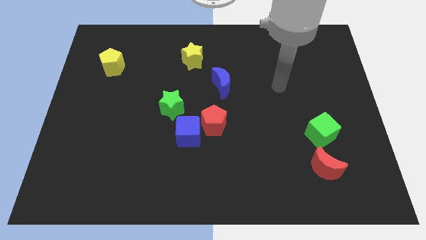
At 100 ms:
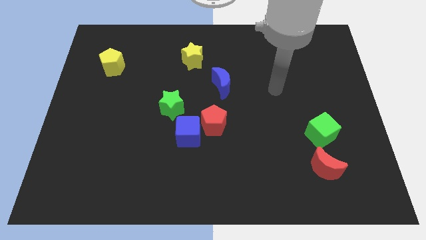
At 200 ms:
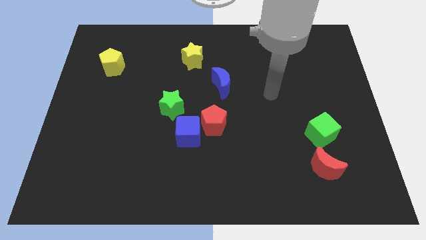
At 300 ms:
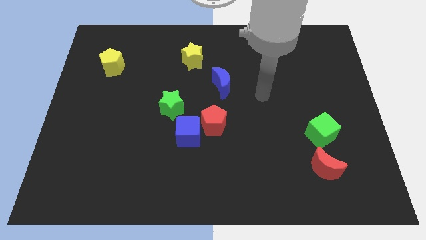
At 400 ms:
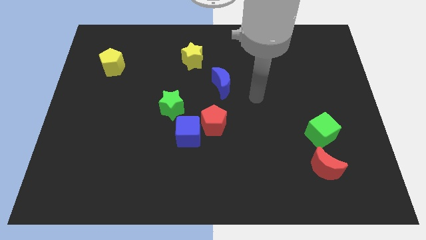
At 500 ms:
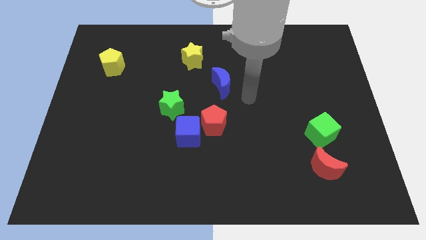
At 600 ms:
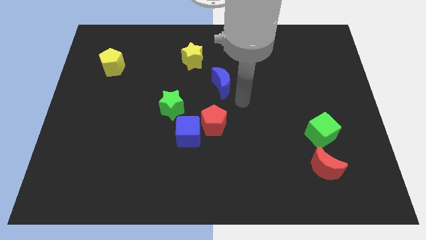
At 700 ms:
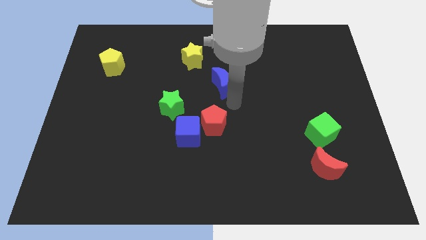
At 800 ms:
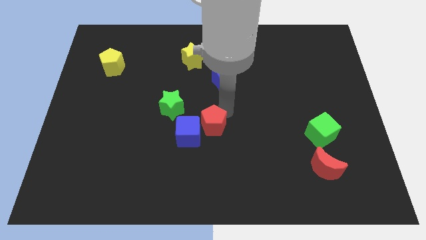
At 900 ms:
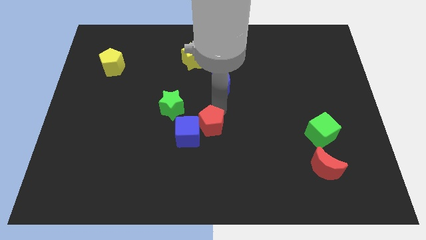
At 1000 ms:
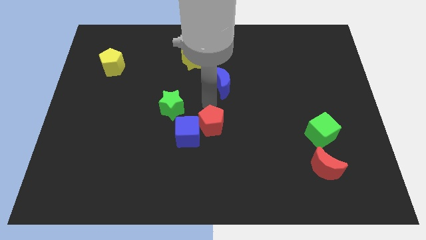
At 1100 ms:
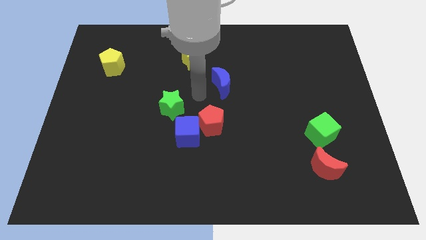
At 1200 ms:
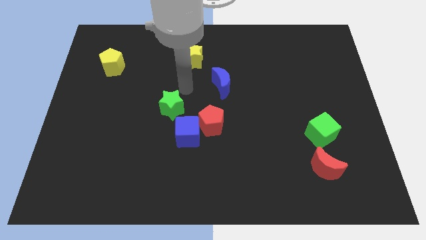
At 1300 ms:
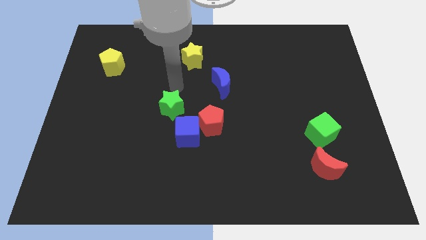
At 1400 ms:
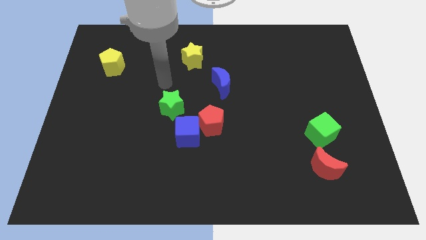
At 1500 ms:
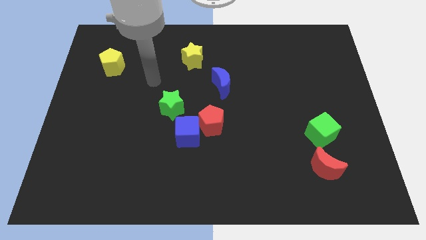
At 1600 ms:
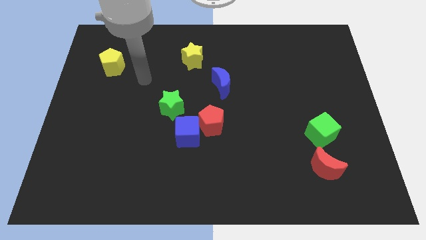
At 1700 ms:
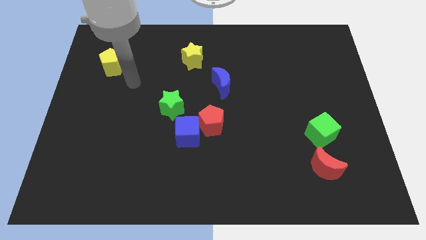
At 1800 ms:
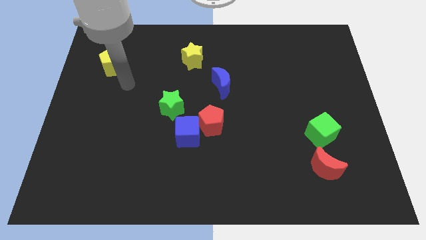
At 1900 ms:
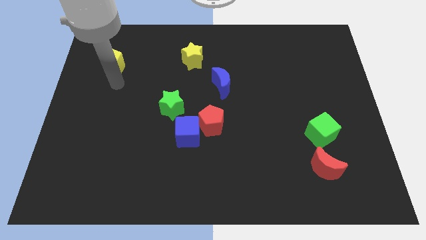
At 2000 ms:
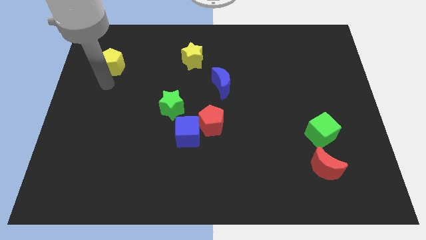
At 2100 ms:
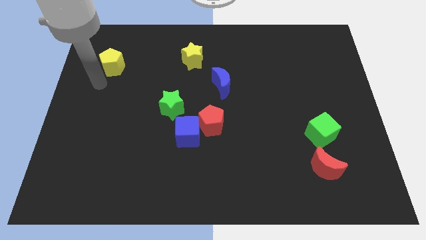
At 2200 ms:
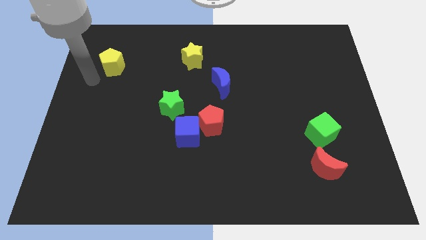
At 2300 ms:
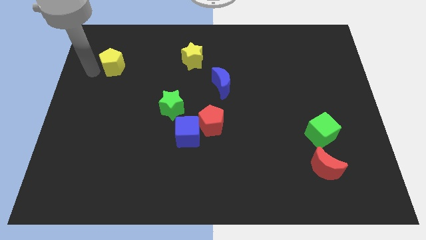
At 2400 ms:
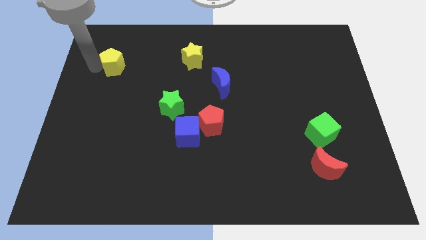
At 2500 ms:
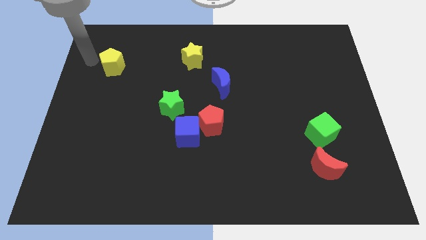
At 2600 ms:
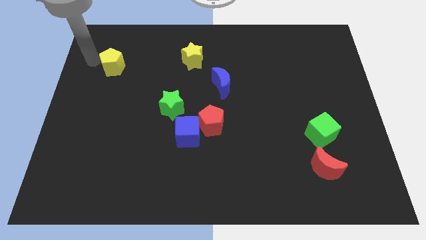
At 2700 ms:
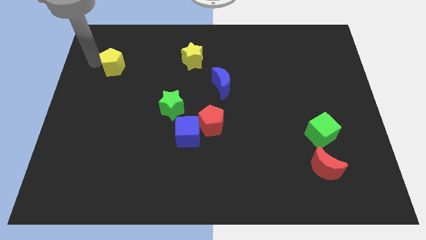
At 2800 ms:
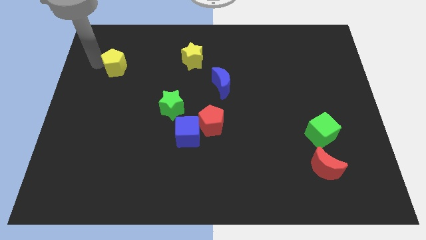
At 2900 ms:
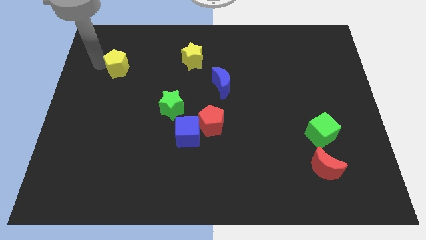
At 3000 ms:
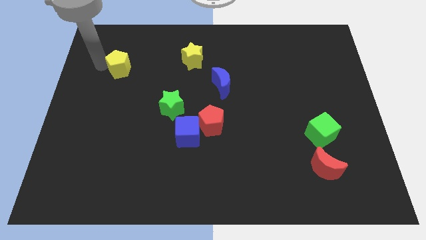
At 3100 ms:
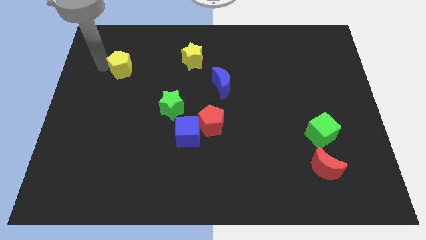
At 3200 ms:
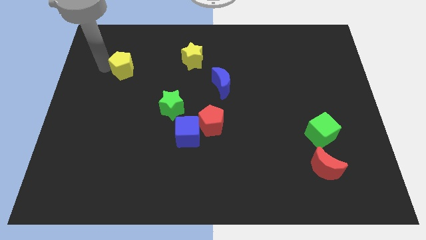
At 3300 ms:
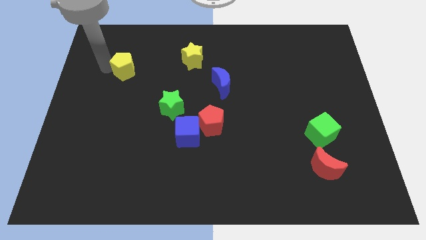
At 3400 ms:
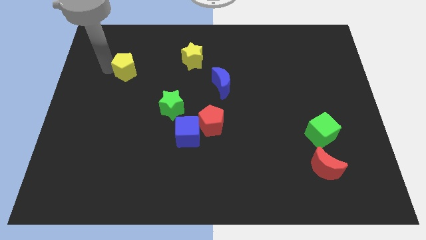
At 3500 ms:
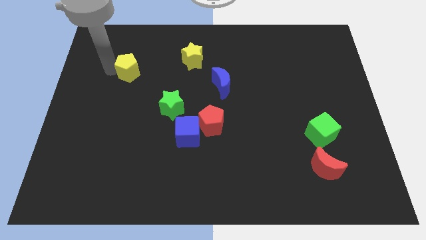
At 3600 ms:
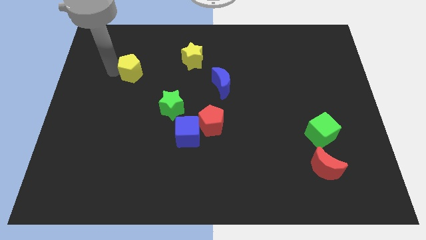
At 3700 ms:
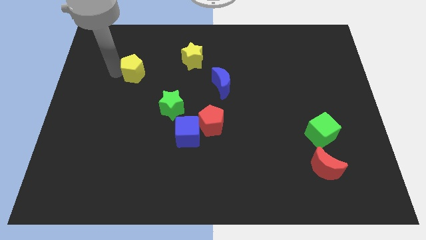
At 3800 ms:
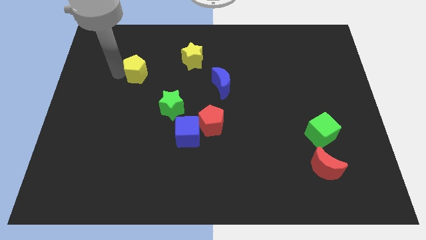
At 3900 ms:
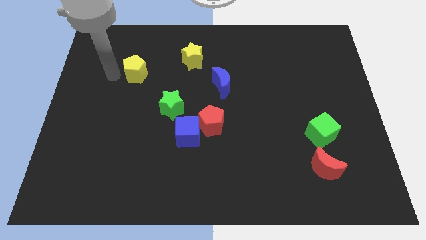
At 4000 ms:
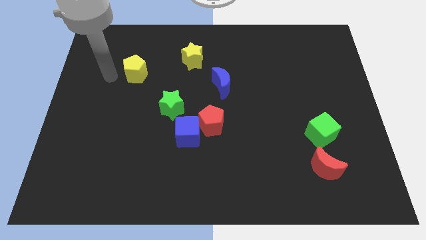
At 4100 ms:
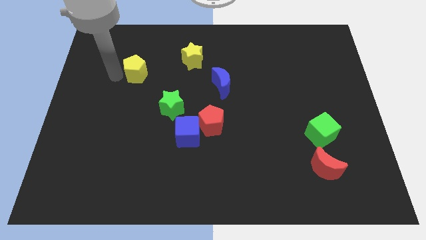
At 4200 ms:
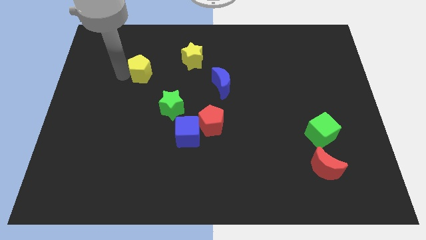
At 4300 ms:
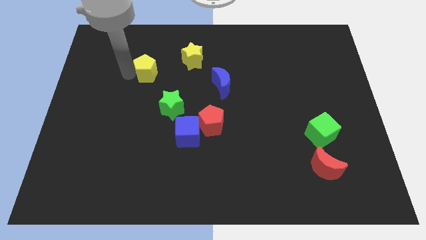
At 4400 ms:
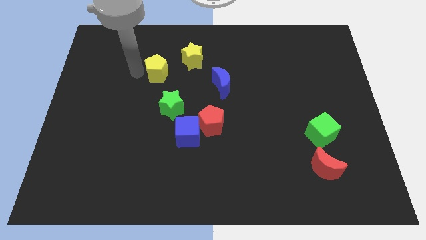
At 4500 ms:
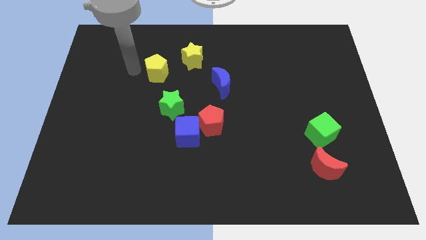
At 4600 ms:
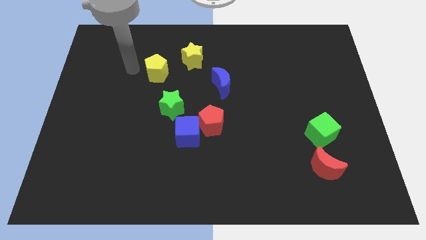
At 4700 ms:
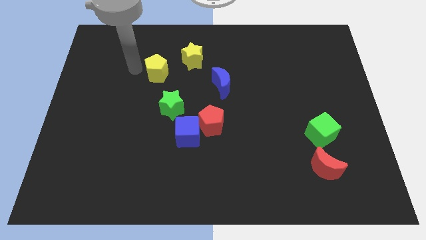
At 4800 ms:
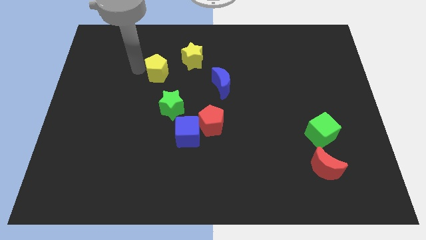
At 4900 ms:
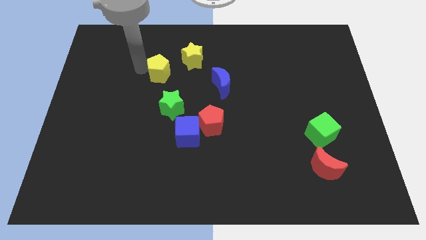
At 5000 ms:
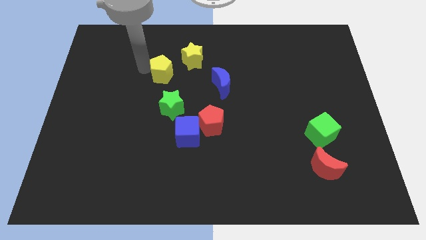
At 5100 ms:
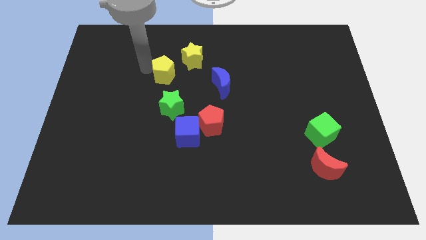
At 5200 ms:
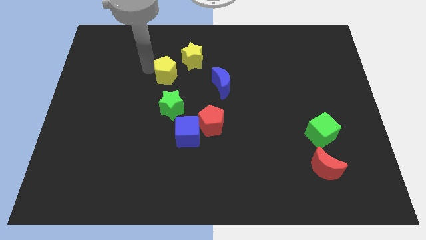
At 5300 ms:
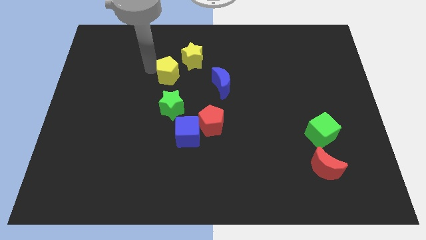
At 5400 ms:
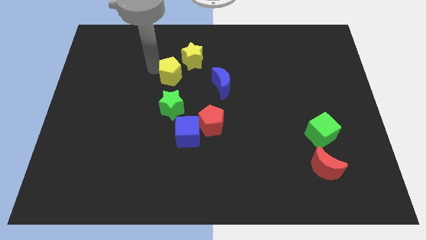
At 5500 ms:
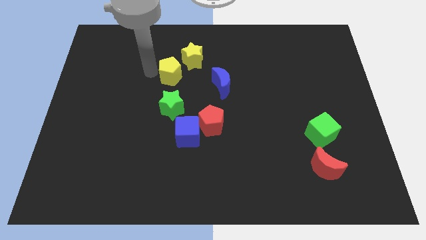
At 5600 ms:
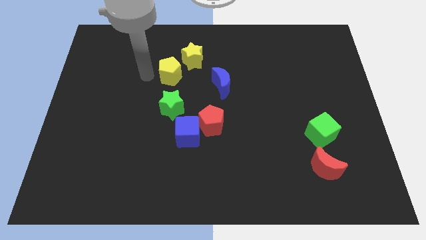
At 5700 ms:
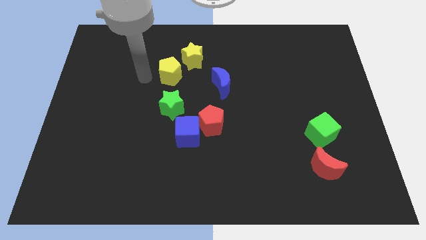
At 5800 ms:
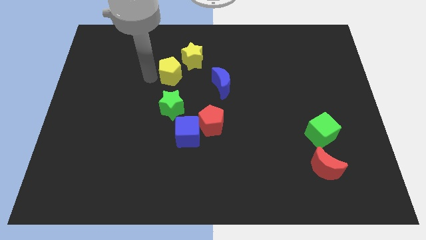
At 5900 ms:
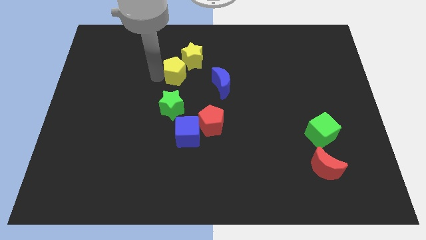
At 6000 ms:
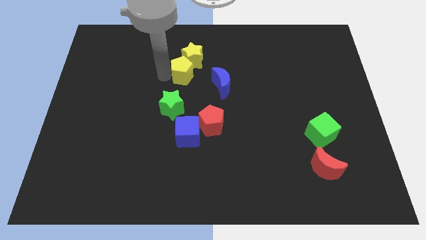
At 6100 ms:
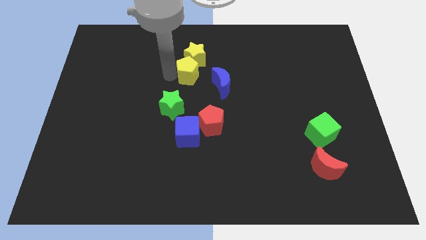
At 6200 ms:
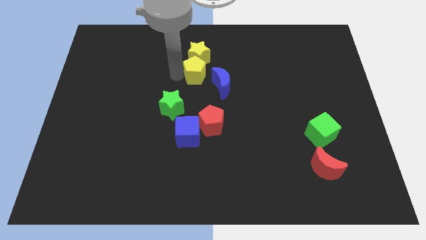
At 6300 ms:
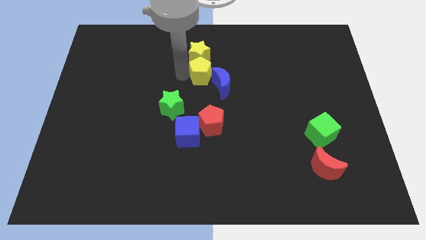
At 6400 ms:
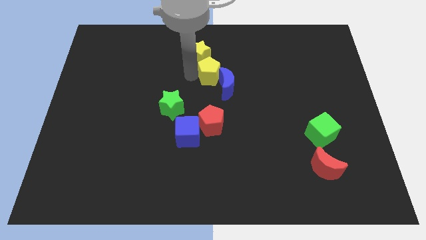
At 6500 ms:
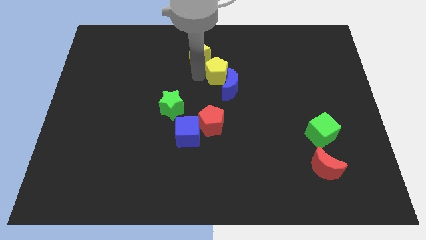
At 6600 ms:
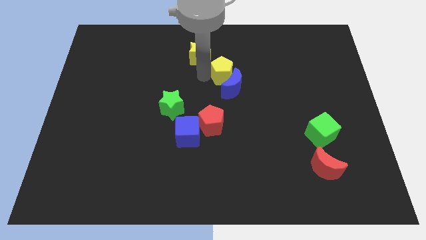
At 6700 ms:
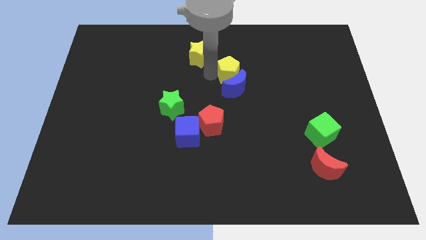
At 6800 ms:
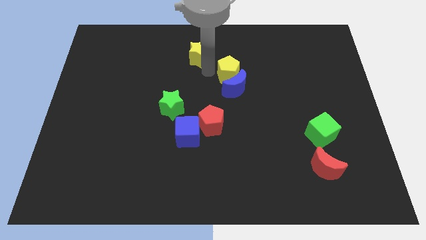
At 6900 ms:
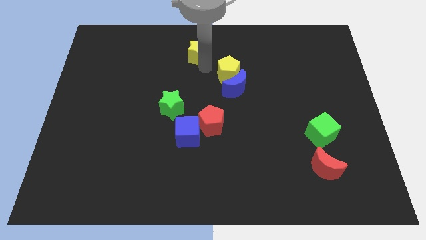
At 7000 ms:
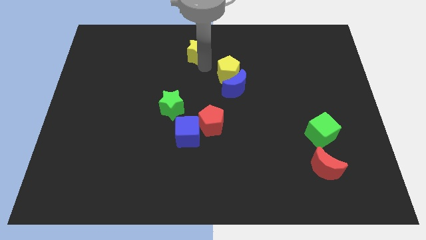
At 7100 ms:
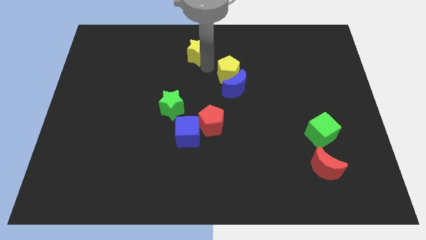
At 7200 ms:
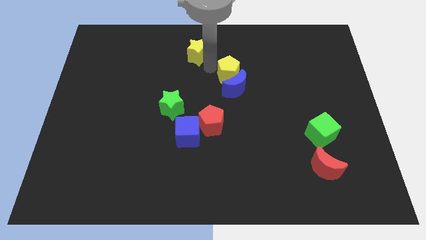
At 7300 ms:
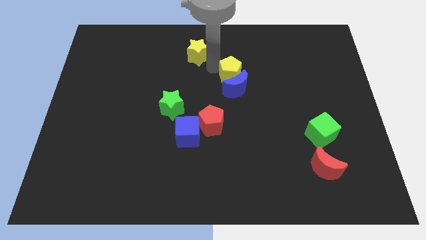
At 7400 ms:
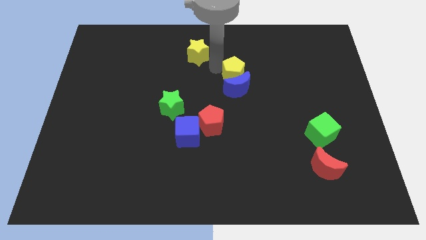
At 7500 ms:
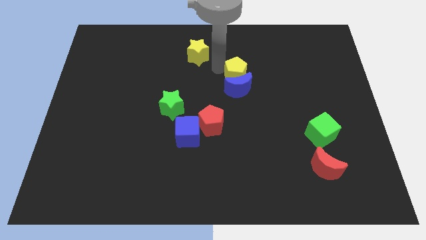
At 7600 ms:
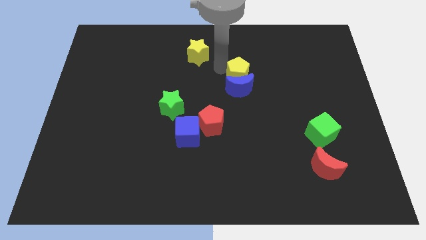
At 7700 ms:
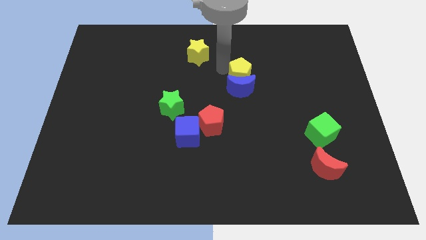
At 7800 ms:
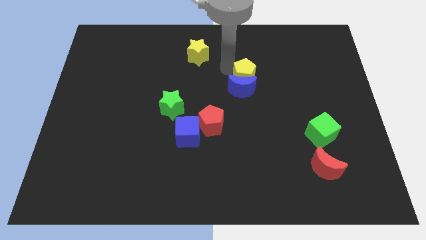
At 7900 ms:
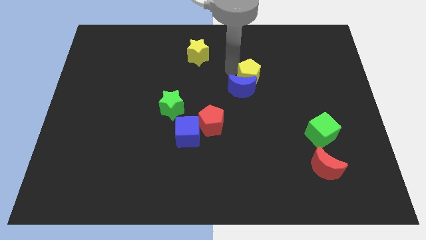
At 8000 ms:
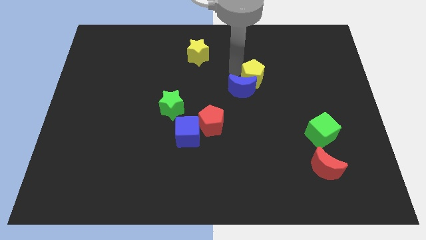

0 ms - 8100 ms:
move the yellow pentagon to the right of the blue moon
